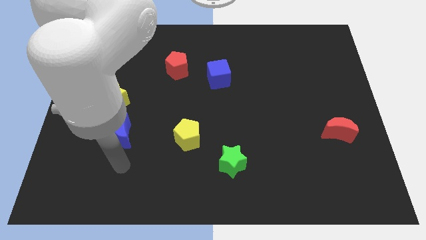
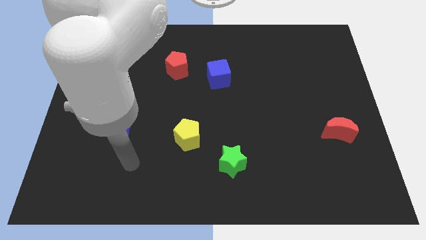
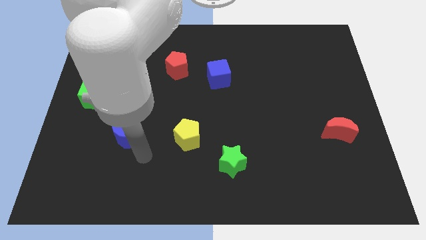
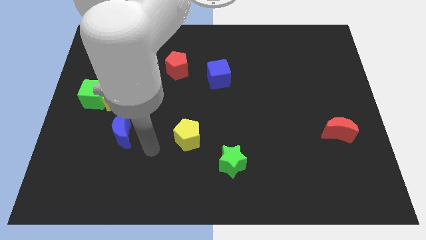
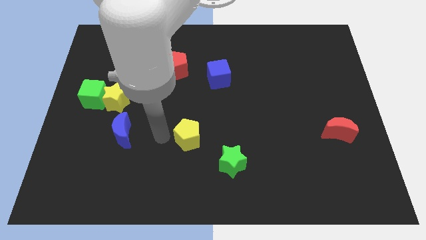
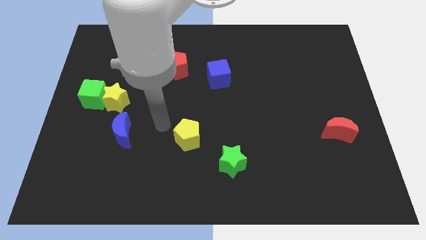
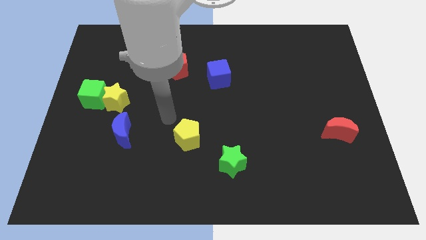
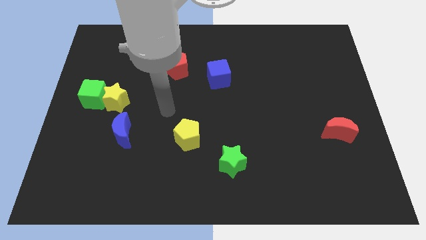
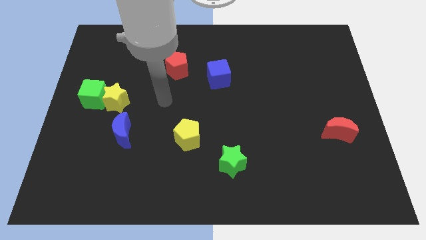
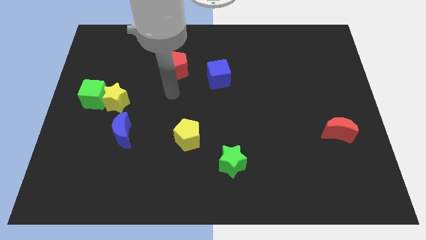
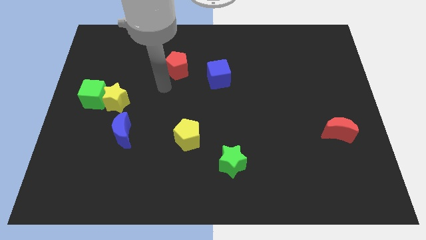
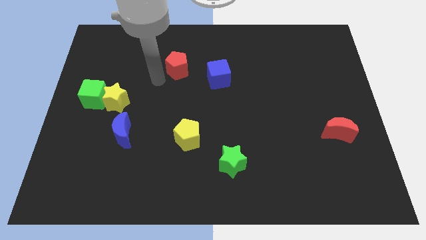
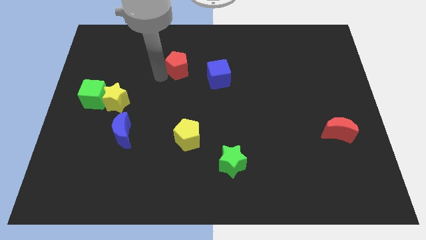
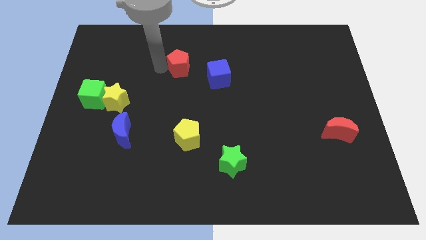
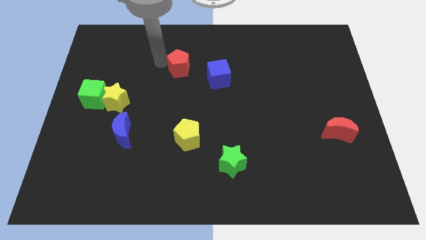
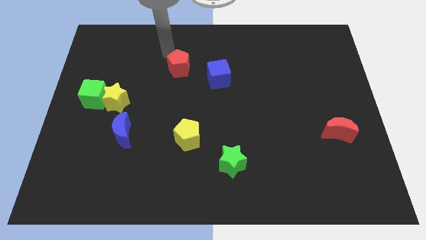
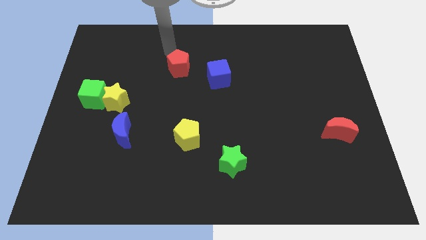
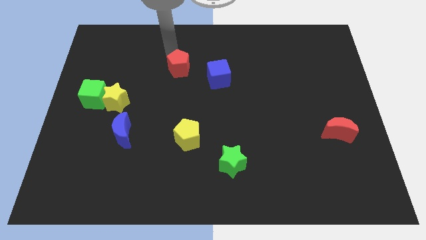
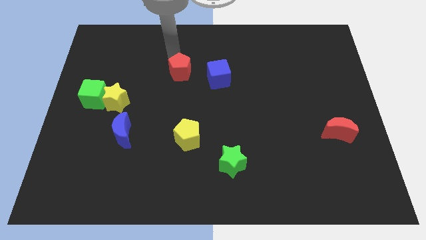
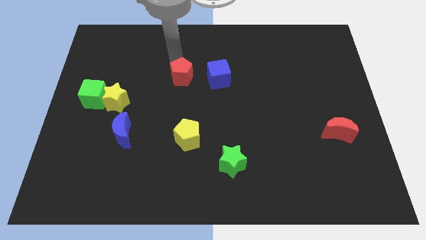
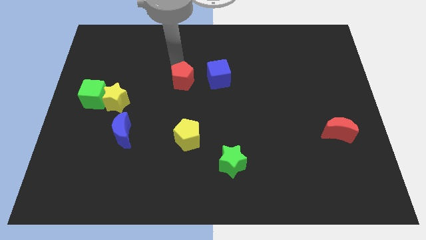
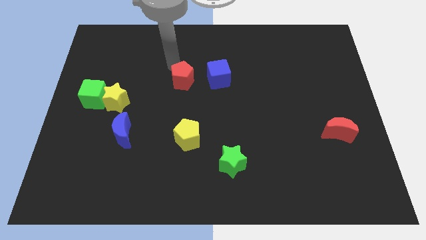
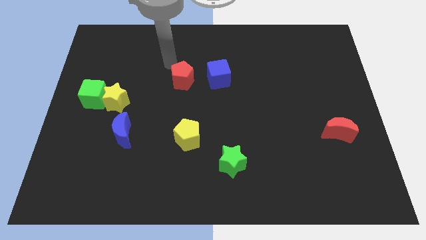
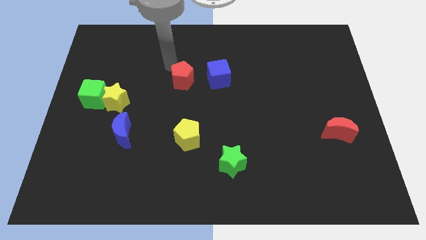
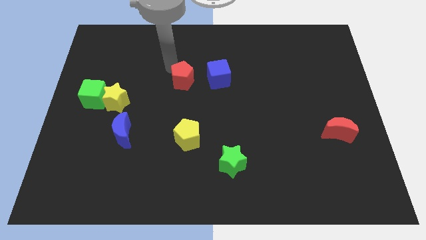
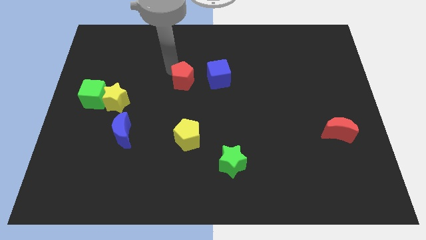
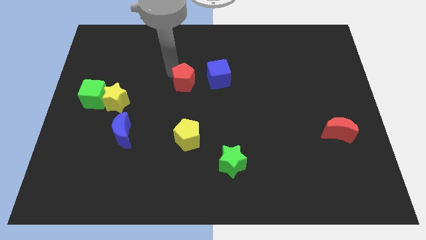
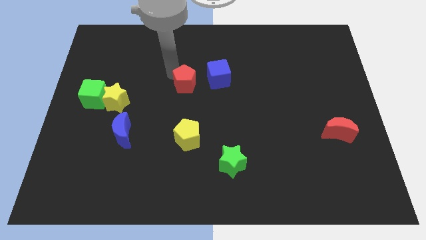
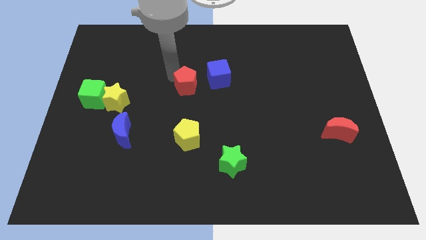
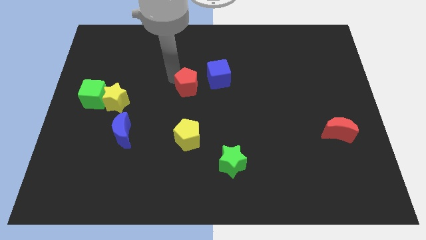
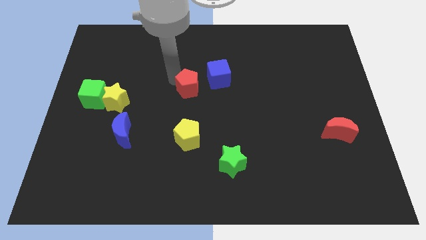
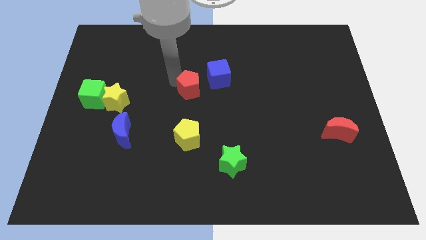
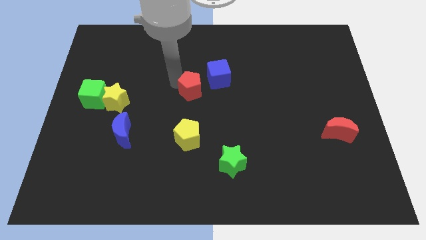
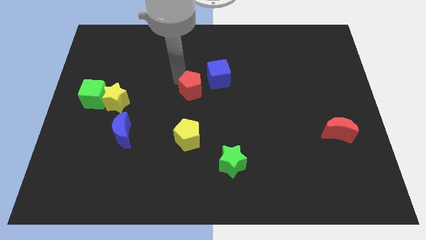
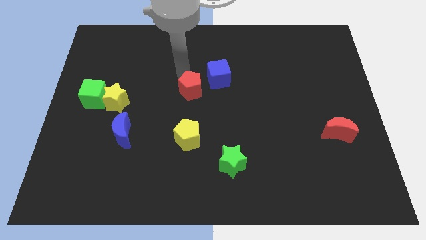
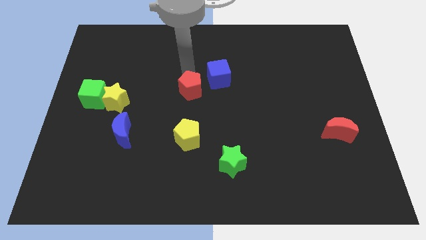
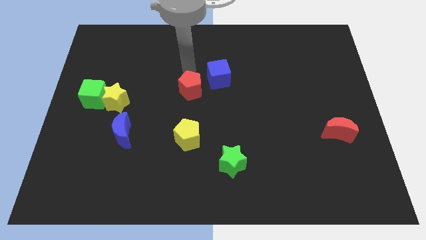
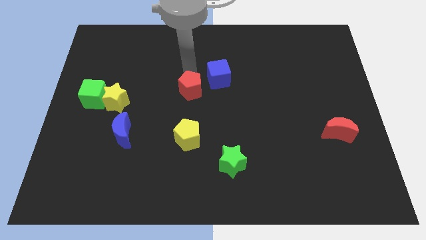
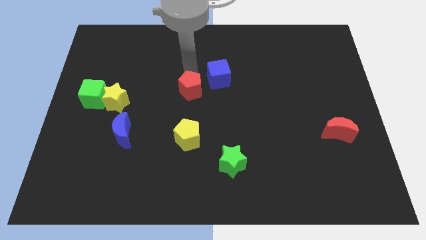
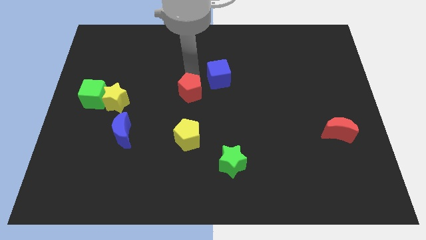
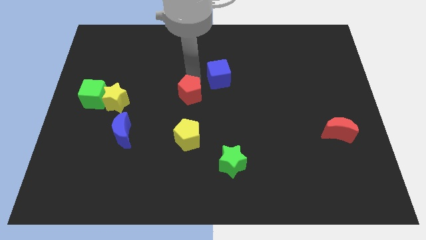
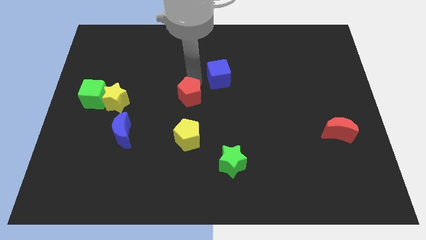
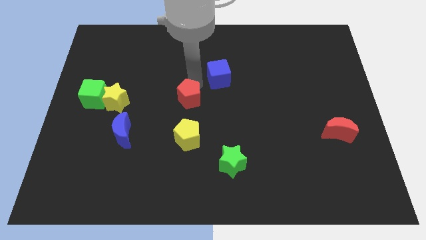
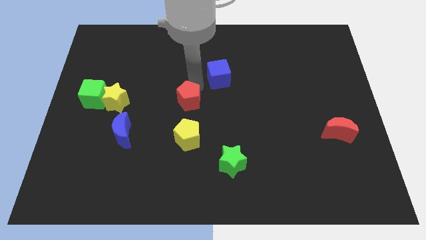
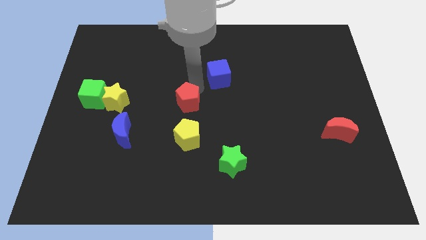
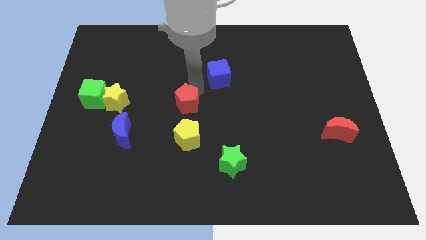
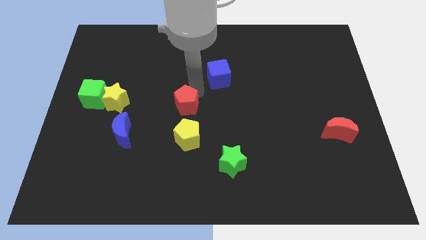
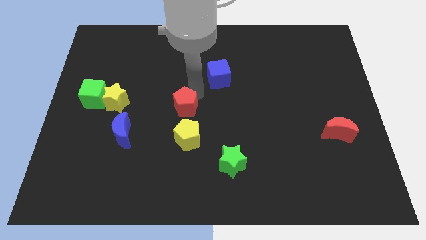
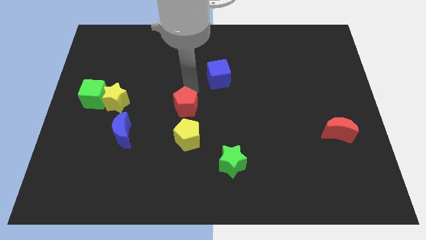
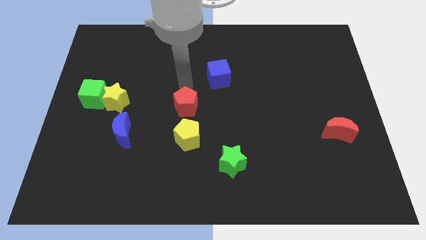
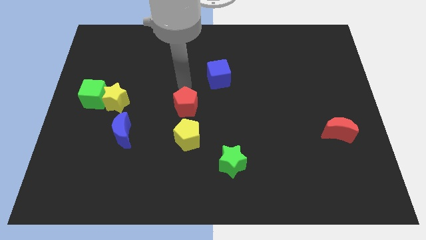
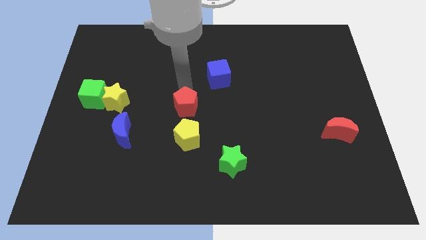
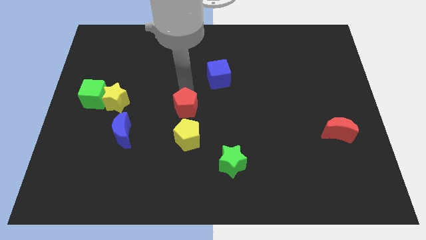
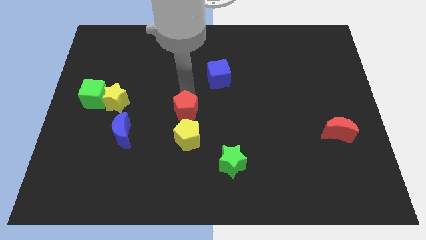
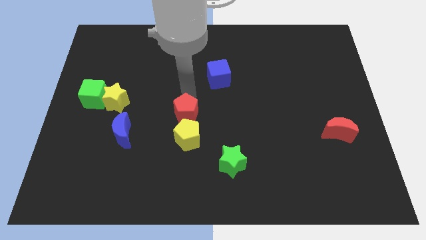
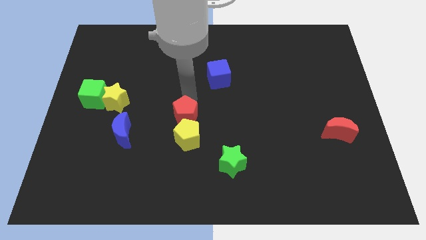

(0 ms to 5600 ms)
put the red pentagon to the yellow pentagon
